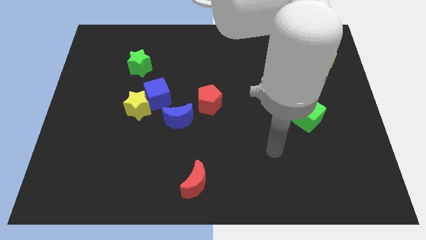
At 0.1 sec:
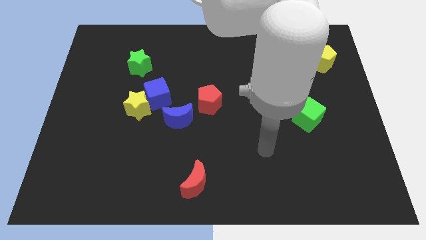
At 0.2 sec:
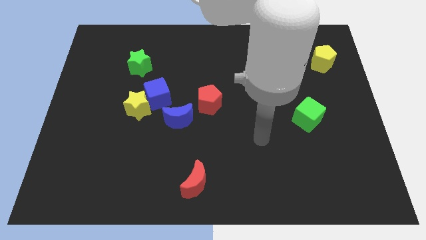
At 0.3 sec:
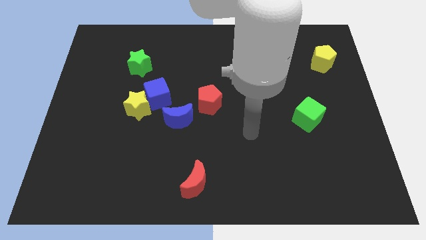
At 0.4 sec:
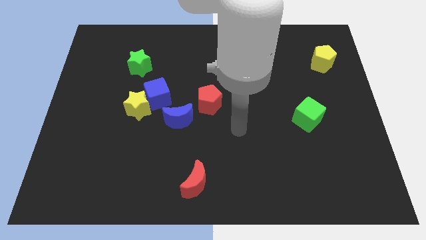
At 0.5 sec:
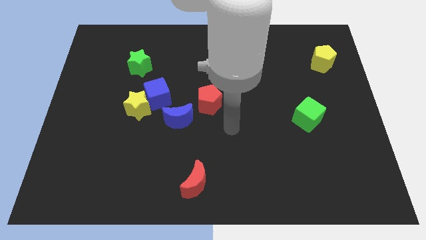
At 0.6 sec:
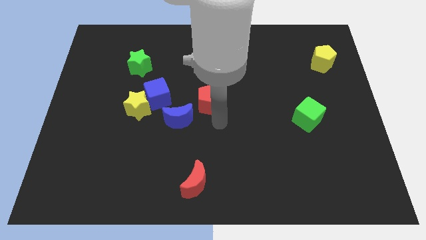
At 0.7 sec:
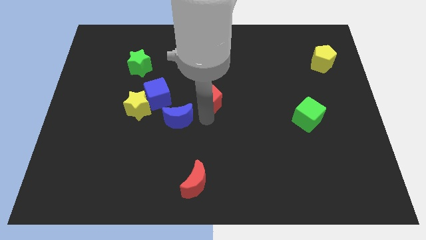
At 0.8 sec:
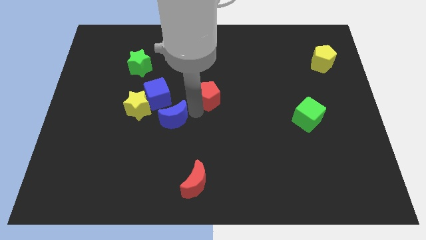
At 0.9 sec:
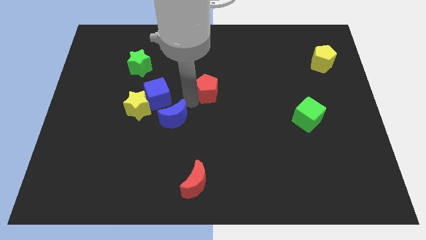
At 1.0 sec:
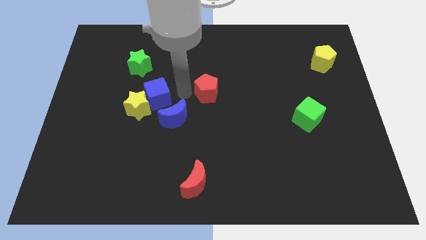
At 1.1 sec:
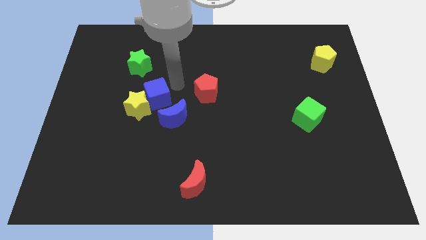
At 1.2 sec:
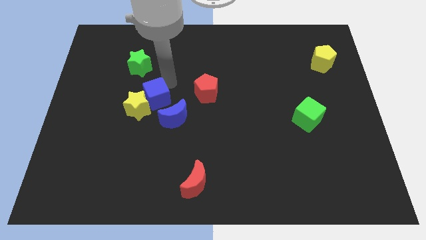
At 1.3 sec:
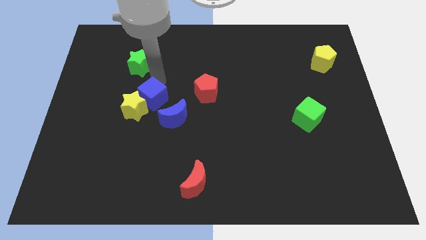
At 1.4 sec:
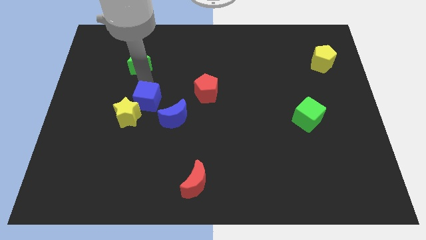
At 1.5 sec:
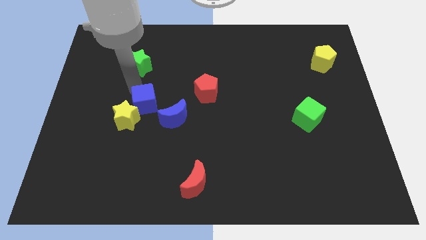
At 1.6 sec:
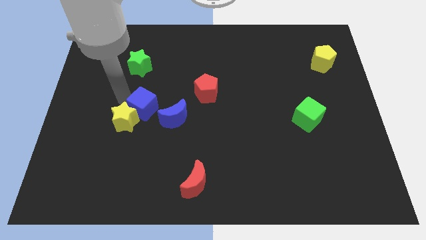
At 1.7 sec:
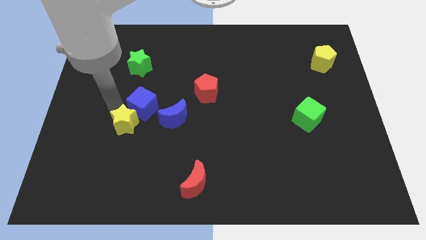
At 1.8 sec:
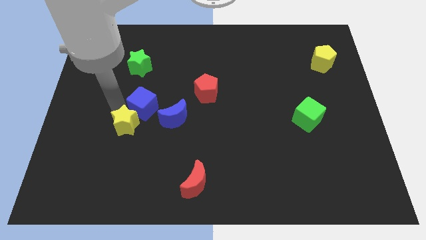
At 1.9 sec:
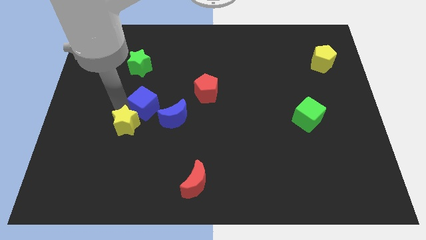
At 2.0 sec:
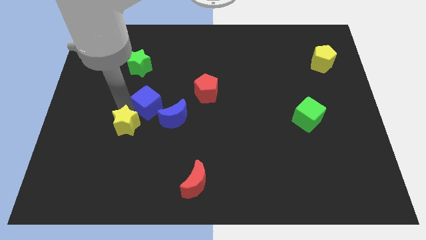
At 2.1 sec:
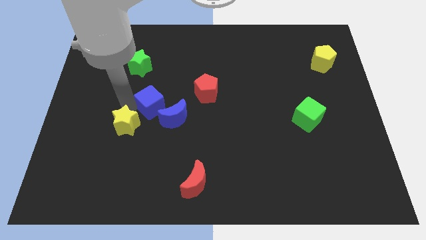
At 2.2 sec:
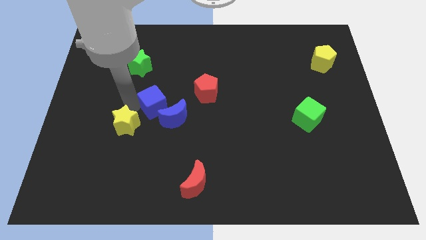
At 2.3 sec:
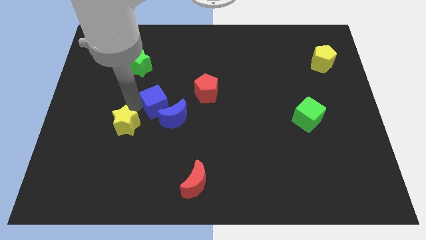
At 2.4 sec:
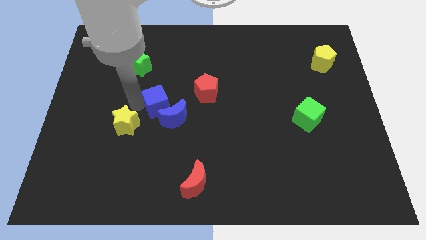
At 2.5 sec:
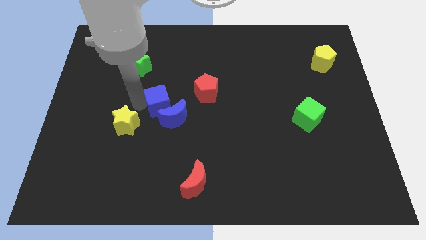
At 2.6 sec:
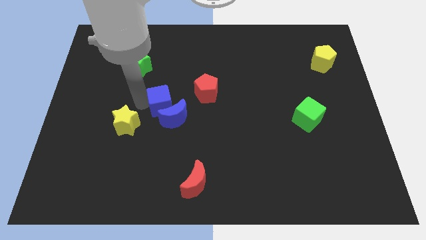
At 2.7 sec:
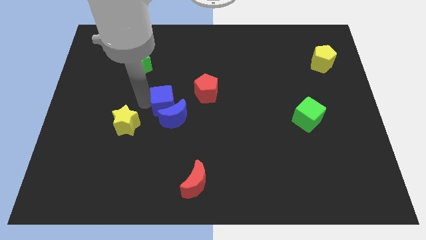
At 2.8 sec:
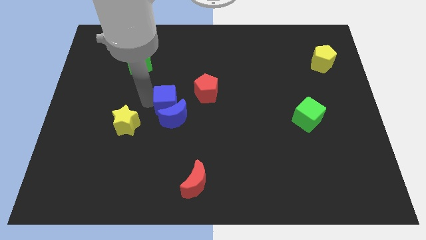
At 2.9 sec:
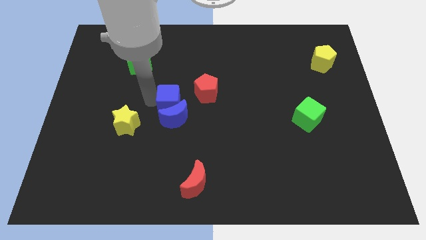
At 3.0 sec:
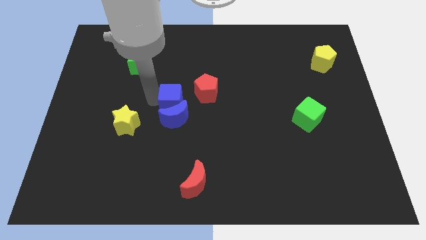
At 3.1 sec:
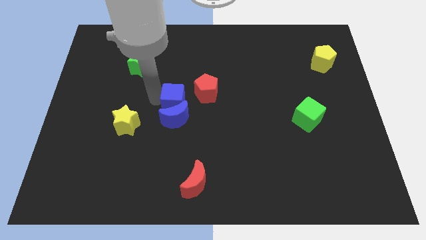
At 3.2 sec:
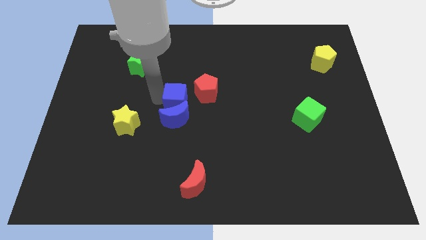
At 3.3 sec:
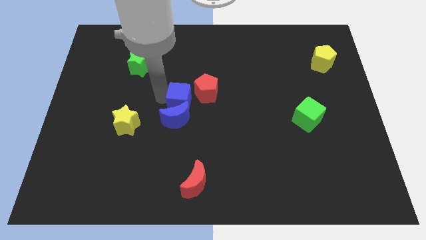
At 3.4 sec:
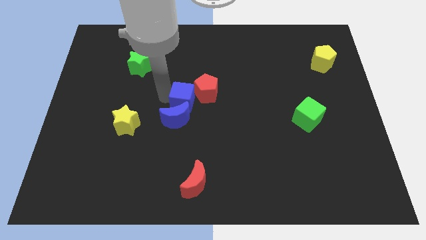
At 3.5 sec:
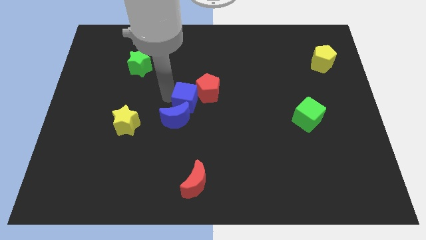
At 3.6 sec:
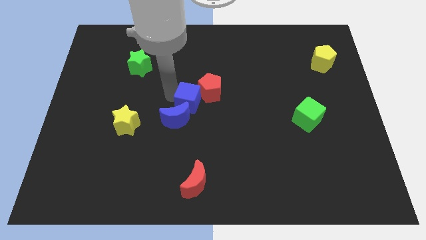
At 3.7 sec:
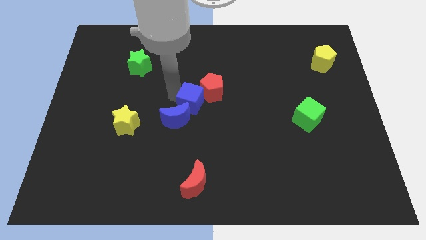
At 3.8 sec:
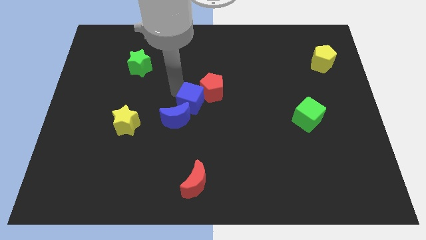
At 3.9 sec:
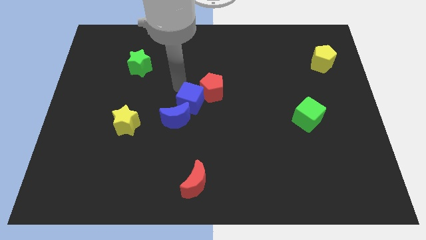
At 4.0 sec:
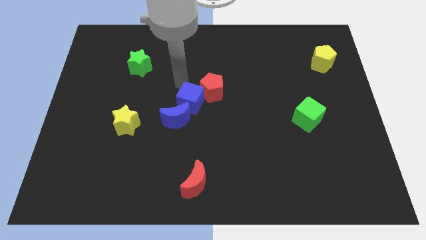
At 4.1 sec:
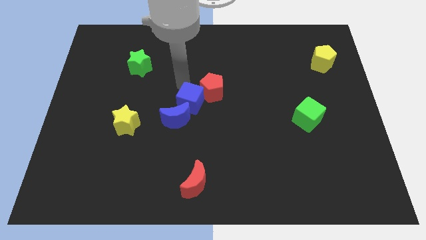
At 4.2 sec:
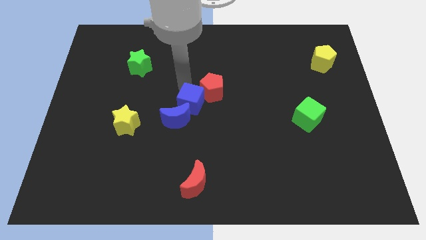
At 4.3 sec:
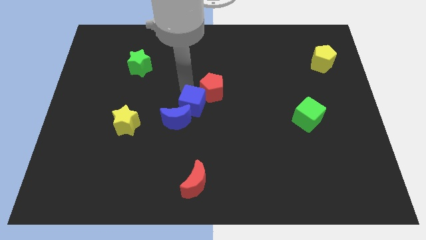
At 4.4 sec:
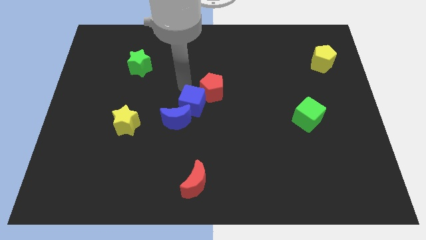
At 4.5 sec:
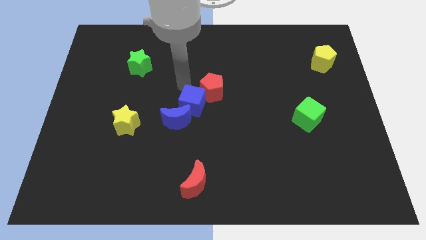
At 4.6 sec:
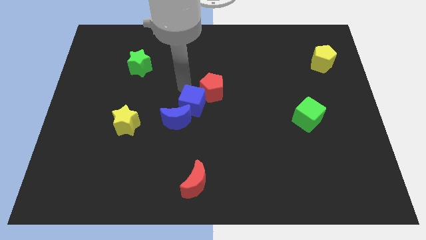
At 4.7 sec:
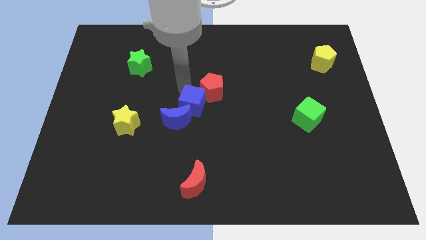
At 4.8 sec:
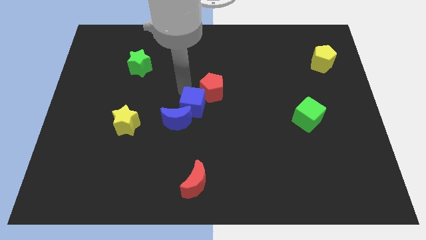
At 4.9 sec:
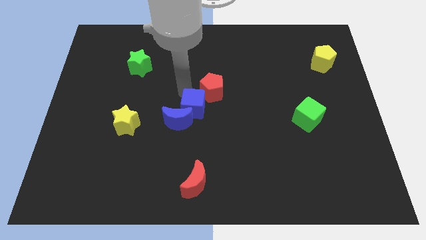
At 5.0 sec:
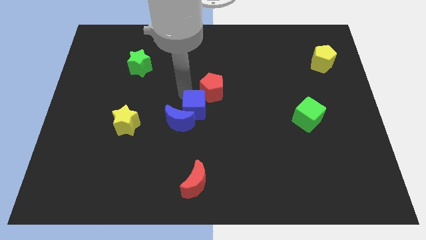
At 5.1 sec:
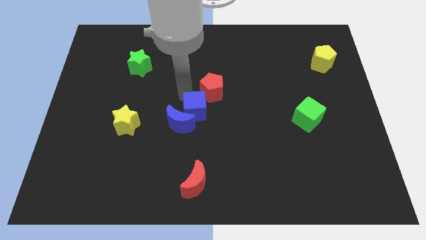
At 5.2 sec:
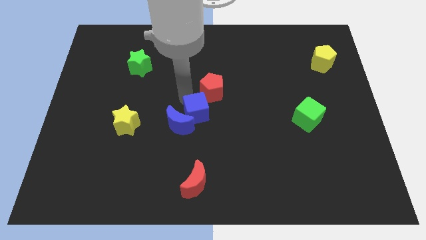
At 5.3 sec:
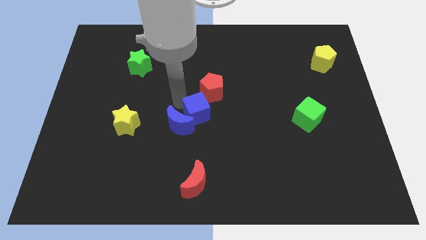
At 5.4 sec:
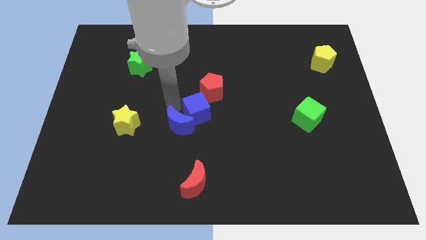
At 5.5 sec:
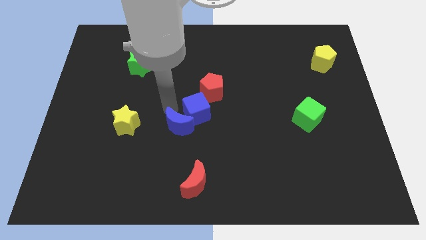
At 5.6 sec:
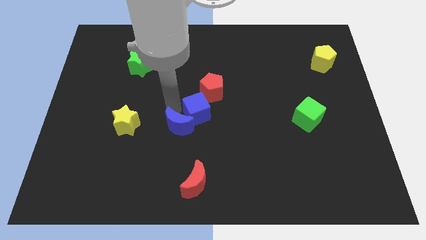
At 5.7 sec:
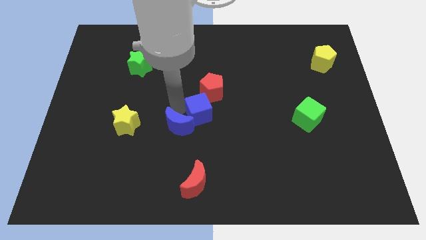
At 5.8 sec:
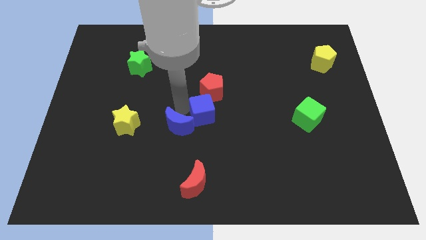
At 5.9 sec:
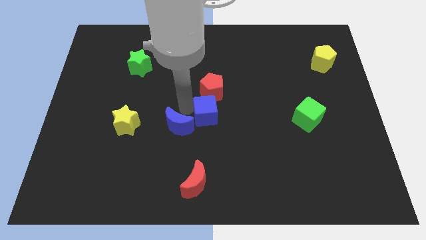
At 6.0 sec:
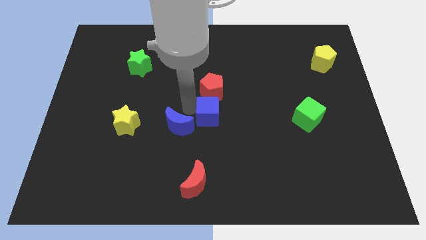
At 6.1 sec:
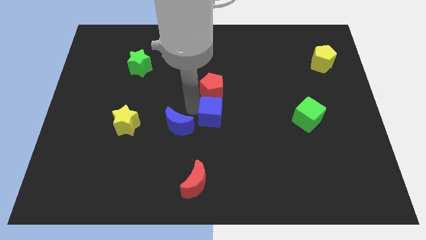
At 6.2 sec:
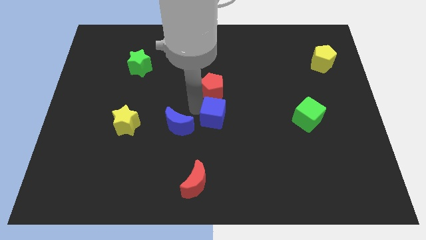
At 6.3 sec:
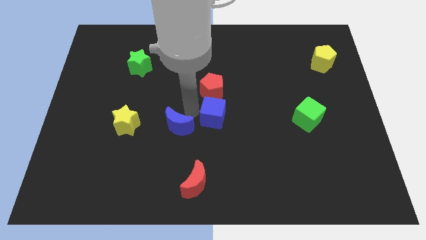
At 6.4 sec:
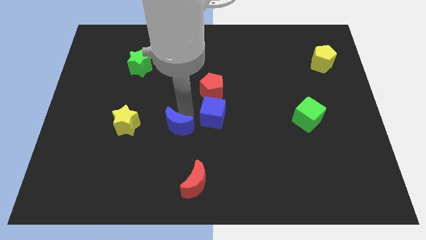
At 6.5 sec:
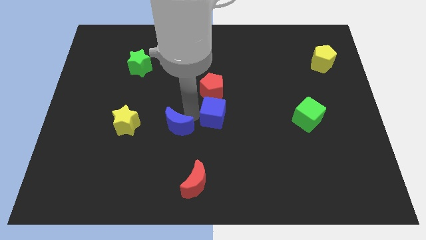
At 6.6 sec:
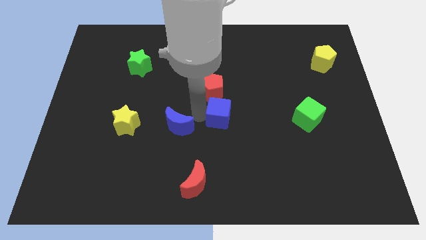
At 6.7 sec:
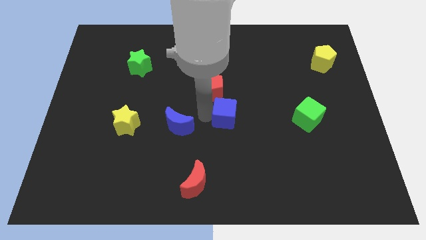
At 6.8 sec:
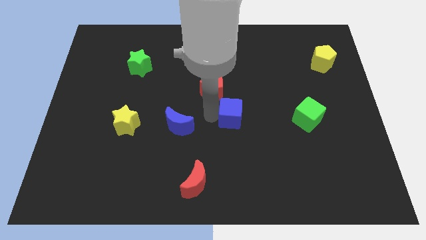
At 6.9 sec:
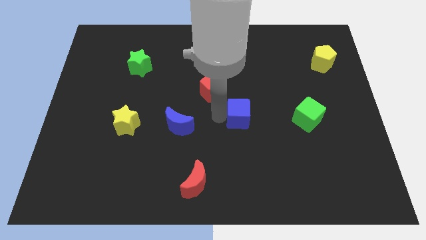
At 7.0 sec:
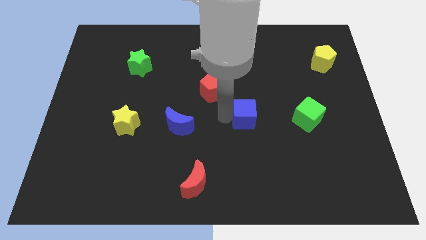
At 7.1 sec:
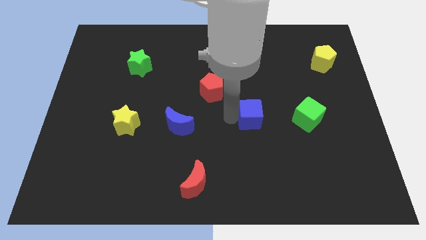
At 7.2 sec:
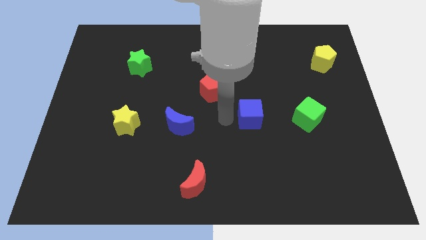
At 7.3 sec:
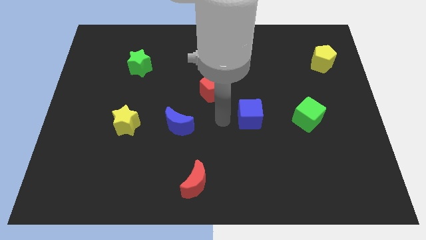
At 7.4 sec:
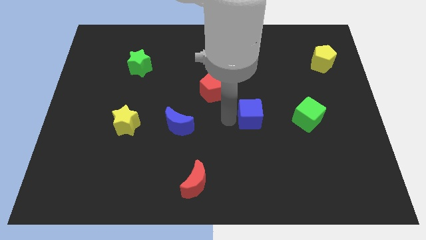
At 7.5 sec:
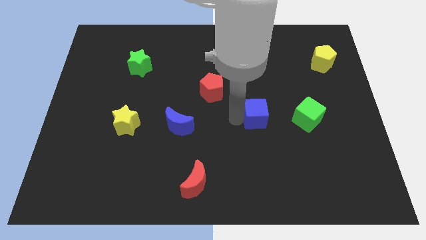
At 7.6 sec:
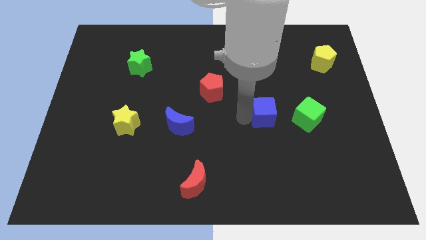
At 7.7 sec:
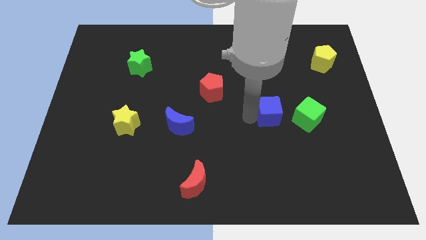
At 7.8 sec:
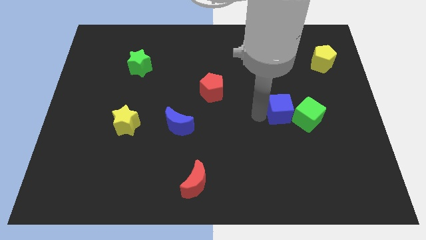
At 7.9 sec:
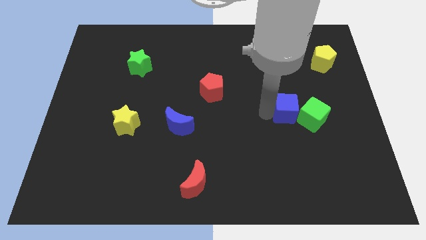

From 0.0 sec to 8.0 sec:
push the blue cube close to the green cube

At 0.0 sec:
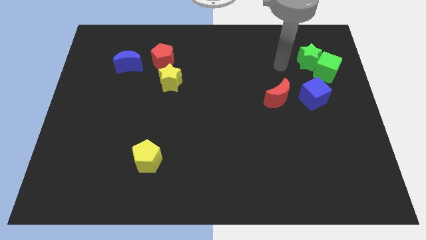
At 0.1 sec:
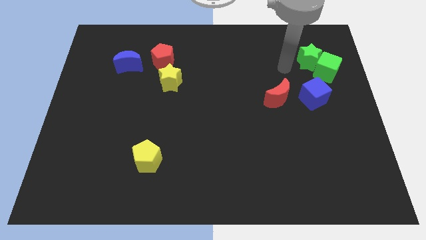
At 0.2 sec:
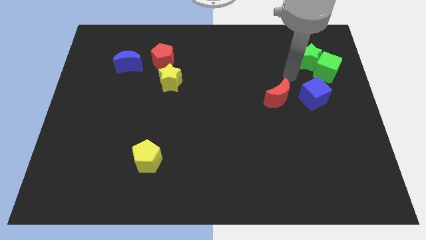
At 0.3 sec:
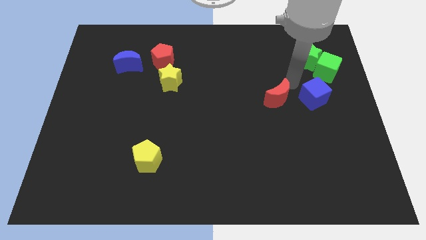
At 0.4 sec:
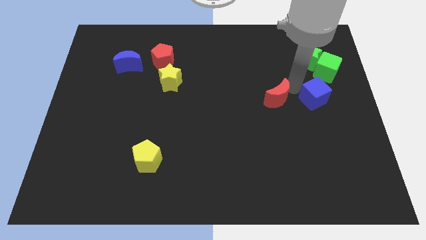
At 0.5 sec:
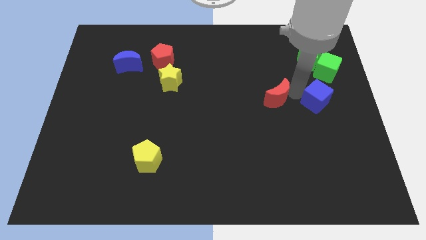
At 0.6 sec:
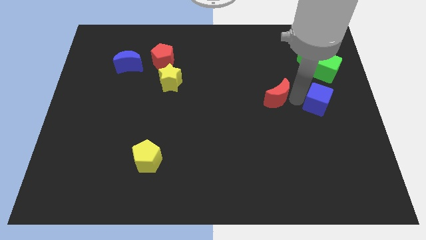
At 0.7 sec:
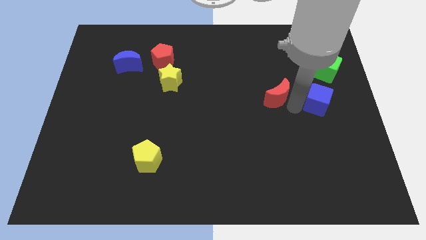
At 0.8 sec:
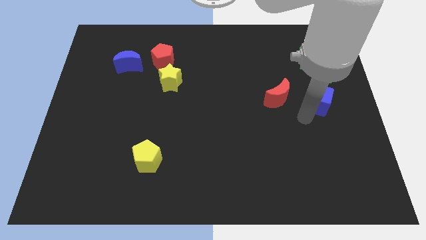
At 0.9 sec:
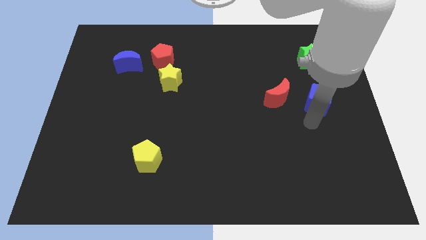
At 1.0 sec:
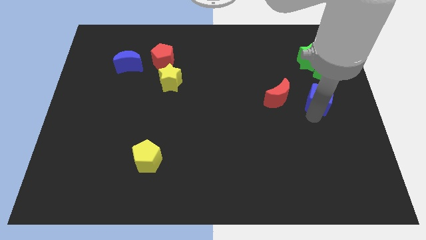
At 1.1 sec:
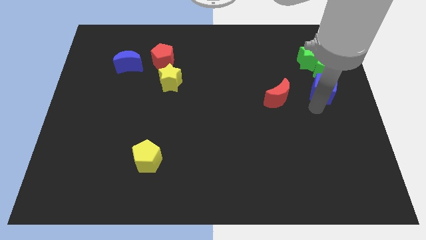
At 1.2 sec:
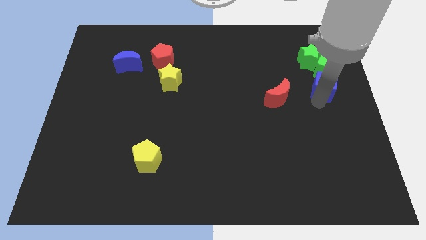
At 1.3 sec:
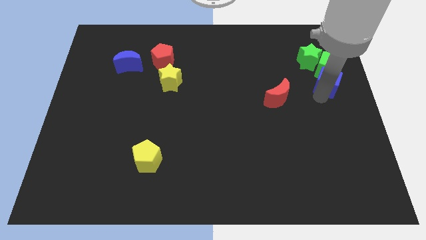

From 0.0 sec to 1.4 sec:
slide the blue cube close to the green cube
